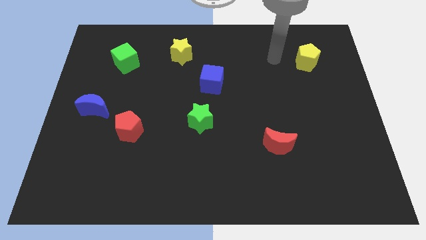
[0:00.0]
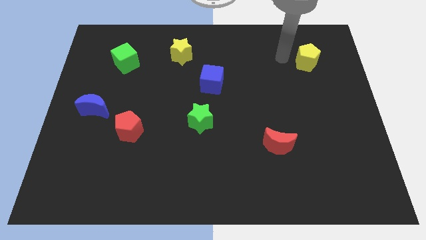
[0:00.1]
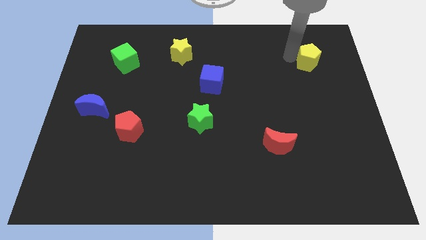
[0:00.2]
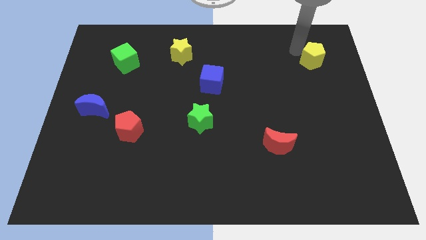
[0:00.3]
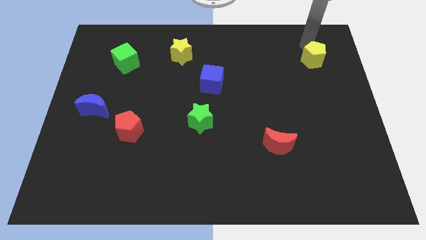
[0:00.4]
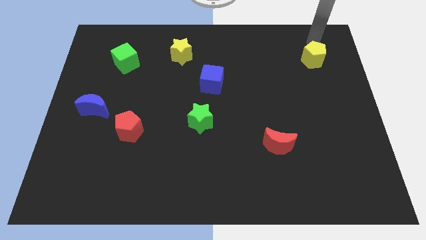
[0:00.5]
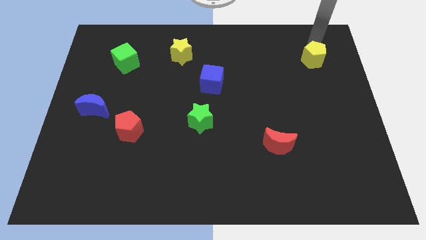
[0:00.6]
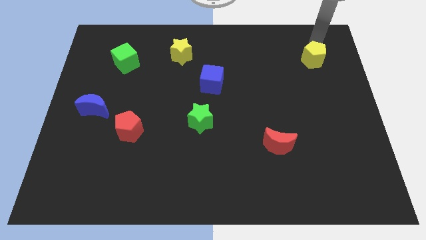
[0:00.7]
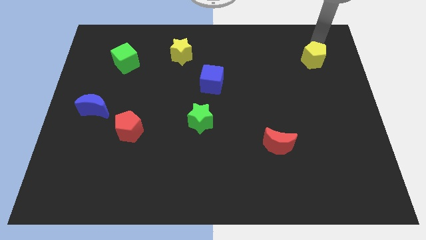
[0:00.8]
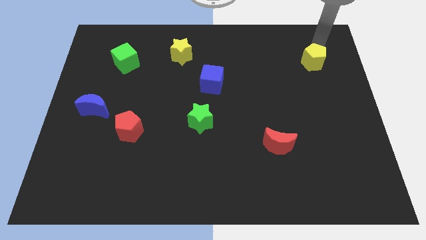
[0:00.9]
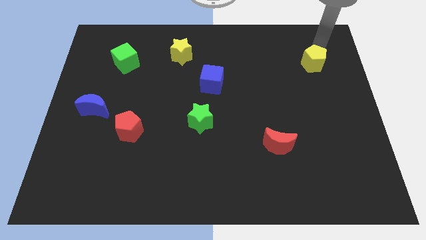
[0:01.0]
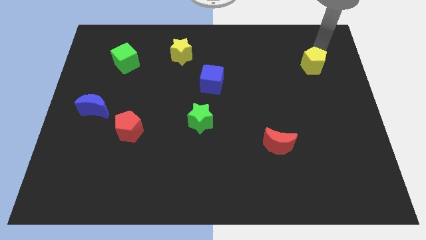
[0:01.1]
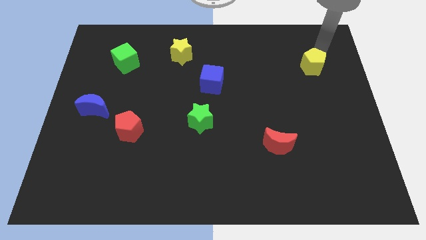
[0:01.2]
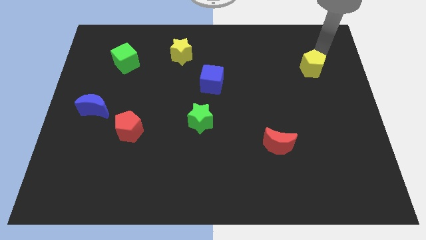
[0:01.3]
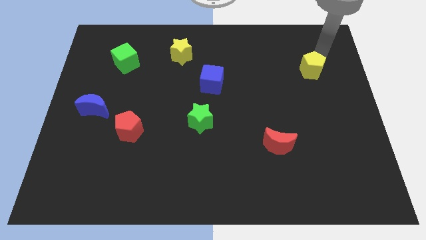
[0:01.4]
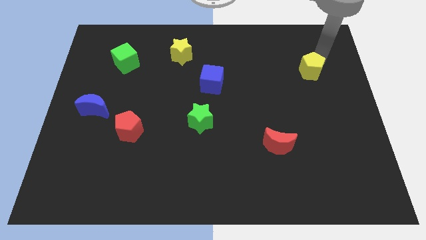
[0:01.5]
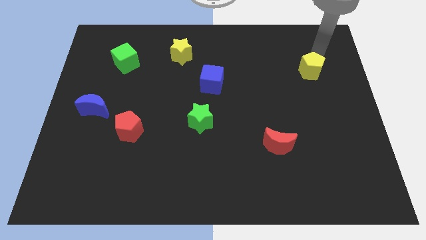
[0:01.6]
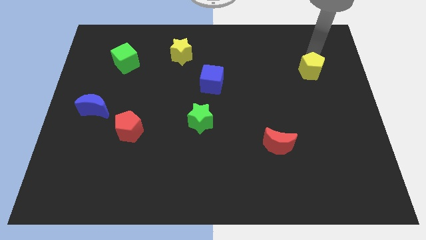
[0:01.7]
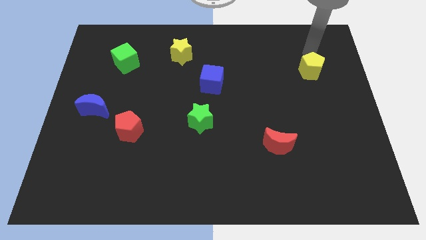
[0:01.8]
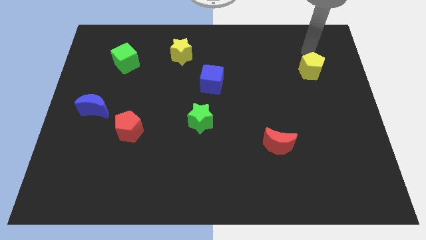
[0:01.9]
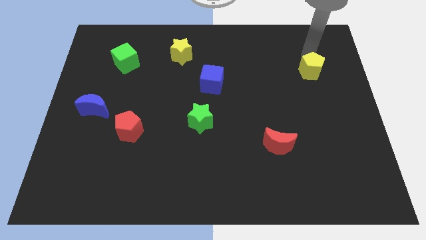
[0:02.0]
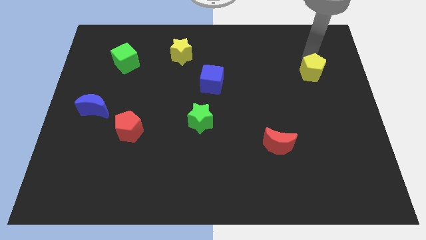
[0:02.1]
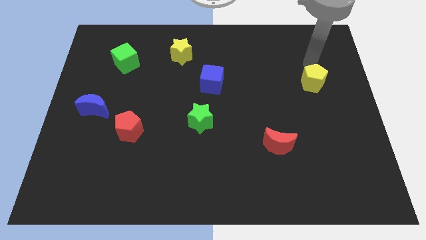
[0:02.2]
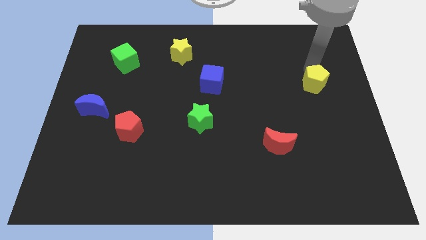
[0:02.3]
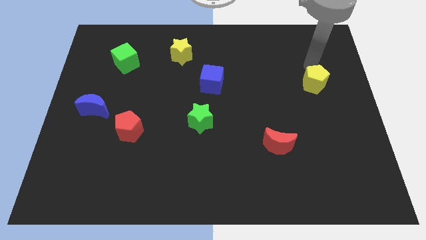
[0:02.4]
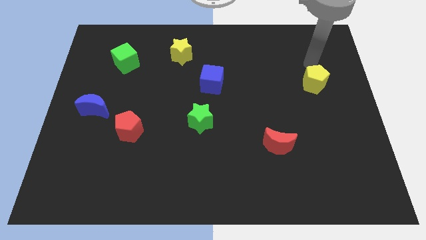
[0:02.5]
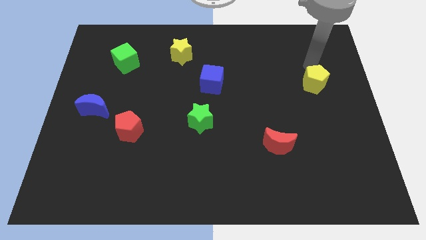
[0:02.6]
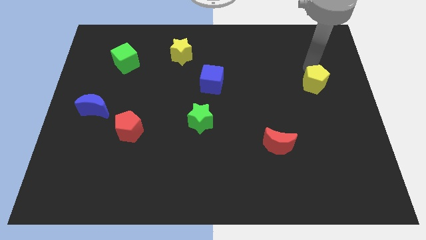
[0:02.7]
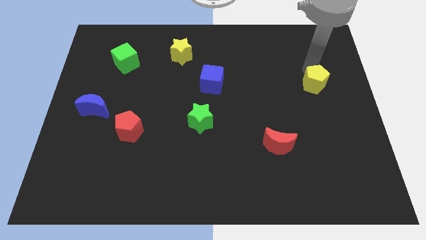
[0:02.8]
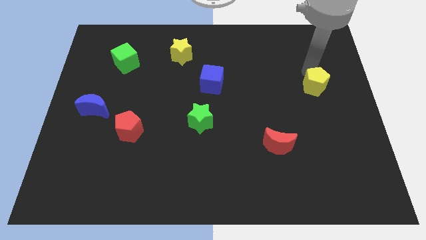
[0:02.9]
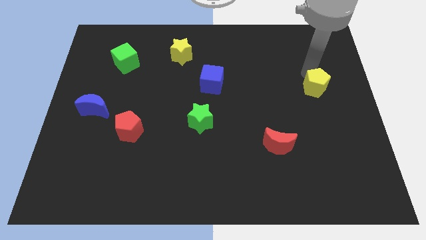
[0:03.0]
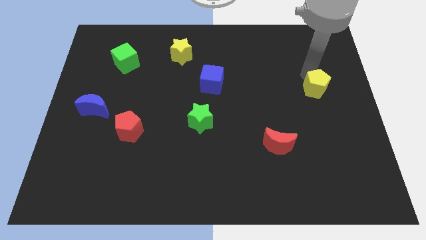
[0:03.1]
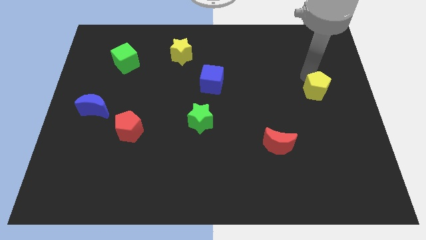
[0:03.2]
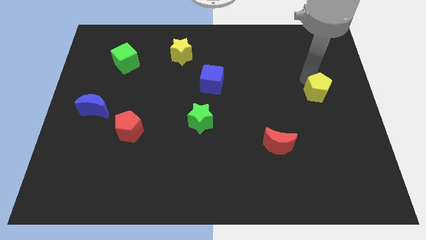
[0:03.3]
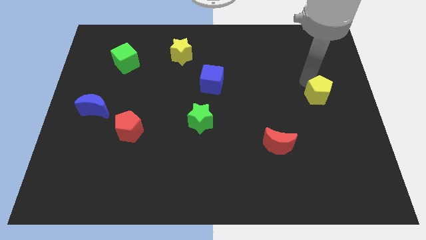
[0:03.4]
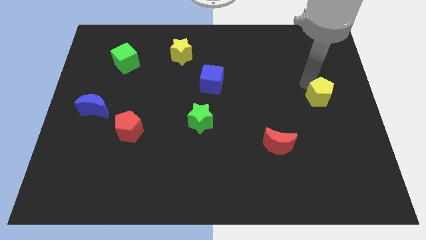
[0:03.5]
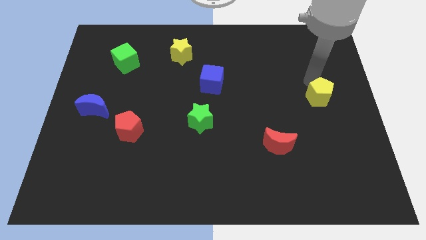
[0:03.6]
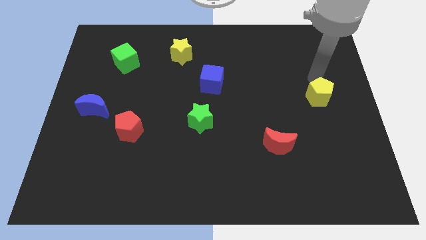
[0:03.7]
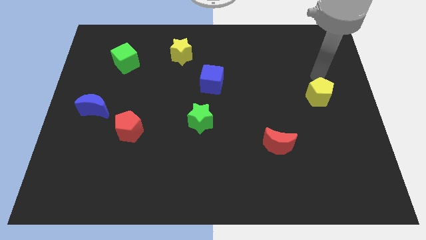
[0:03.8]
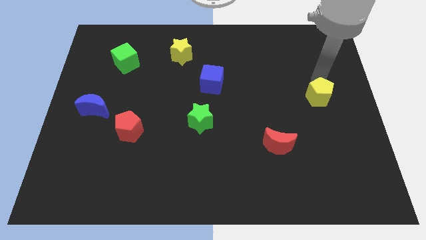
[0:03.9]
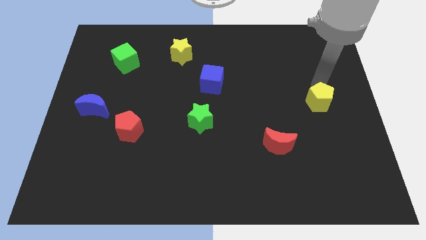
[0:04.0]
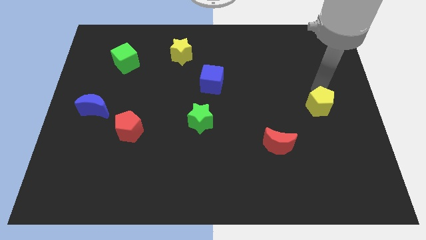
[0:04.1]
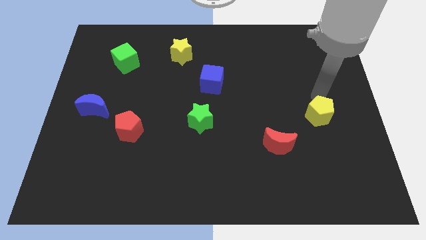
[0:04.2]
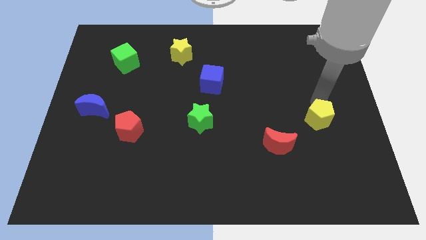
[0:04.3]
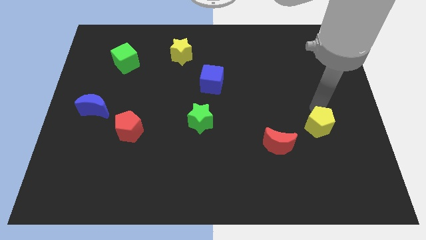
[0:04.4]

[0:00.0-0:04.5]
slide the yellow pentagon down

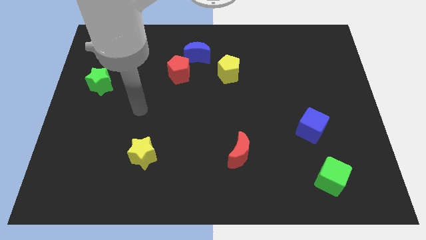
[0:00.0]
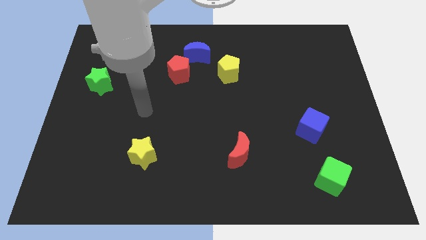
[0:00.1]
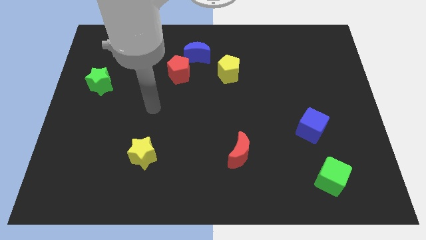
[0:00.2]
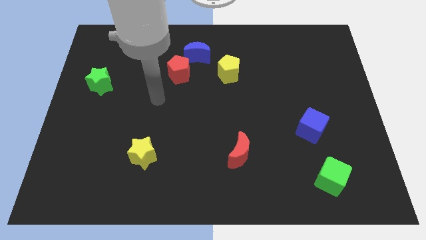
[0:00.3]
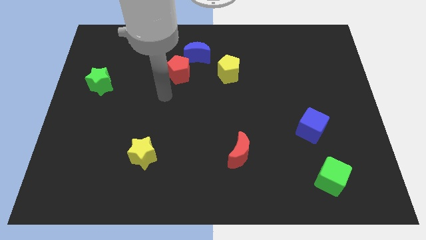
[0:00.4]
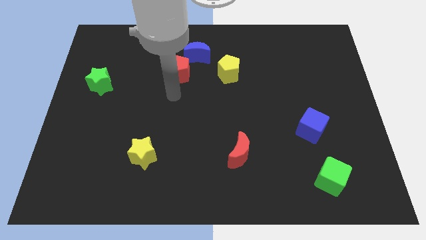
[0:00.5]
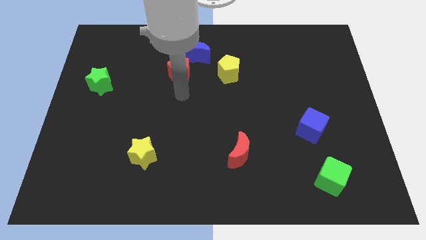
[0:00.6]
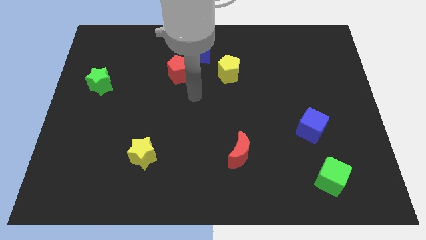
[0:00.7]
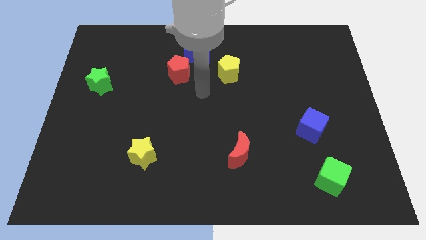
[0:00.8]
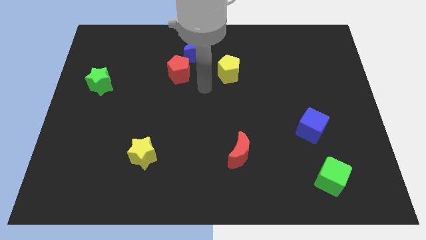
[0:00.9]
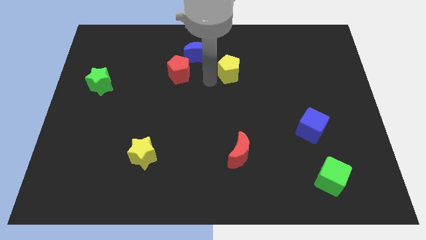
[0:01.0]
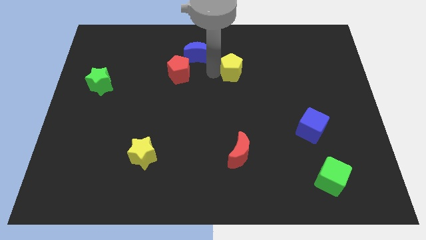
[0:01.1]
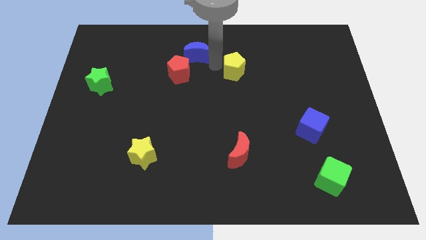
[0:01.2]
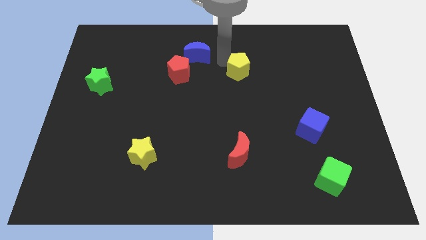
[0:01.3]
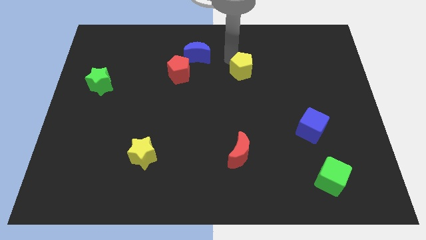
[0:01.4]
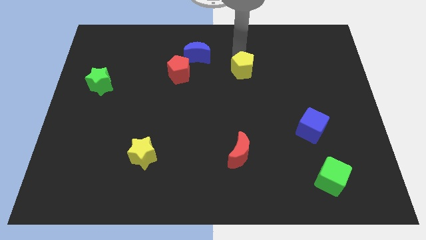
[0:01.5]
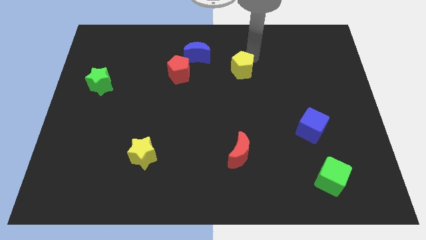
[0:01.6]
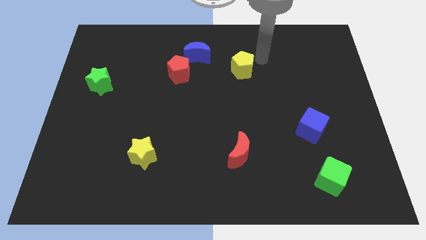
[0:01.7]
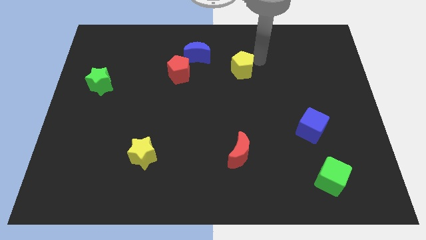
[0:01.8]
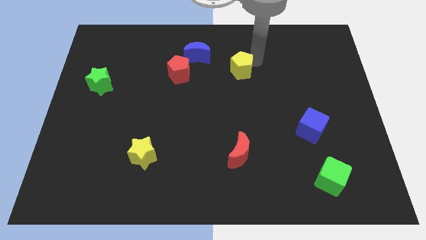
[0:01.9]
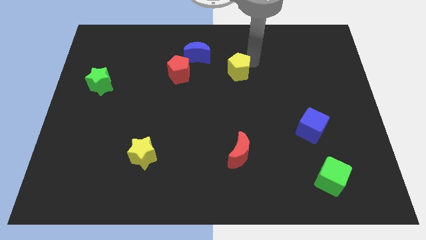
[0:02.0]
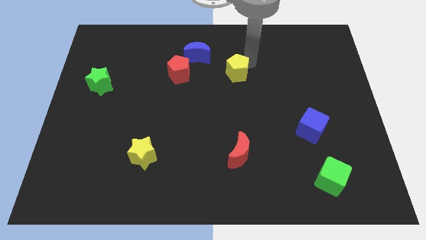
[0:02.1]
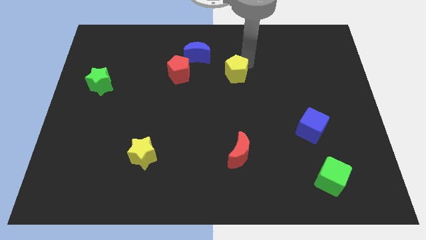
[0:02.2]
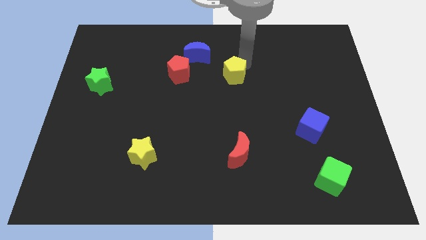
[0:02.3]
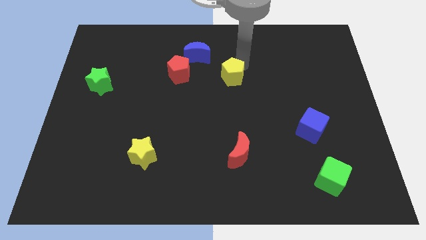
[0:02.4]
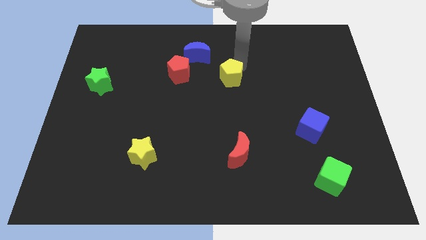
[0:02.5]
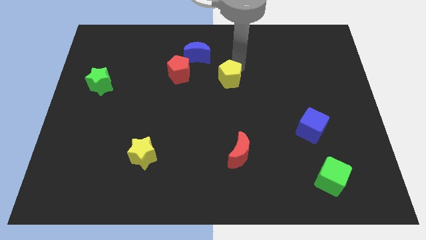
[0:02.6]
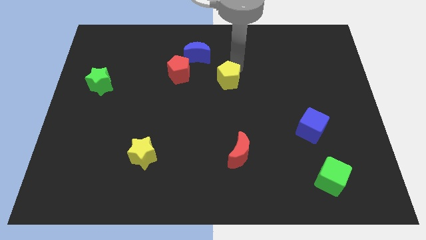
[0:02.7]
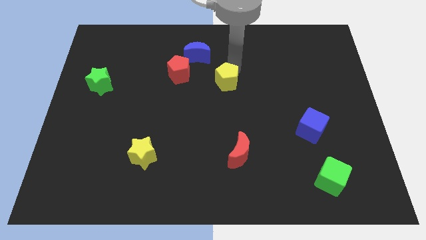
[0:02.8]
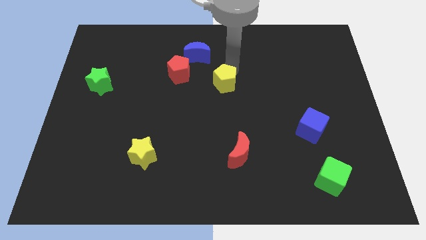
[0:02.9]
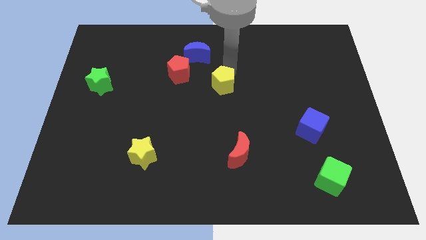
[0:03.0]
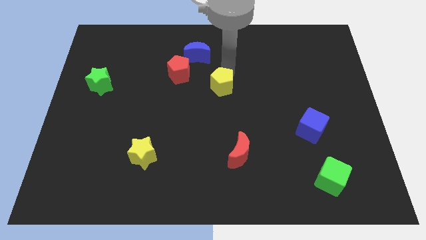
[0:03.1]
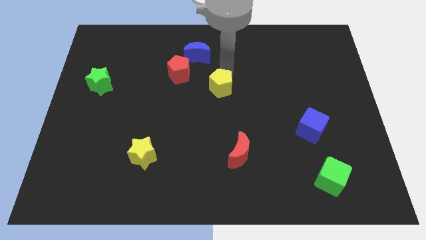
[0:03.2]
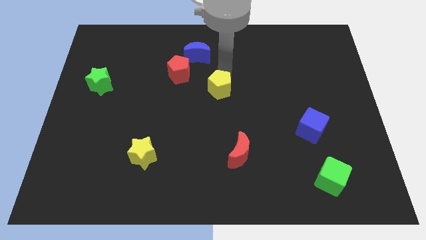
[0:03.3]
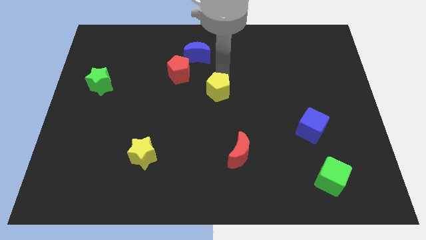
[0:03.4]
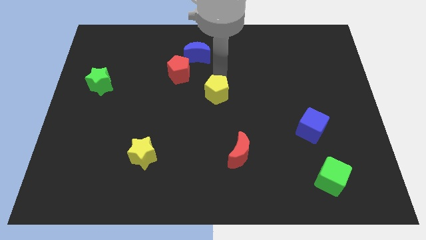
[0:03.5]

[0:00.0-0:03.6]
slightly push the yellow pentagon down and then left

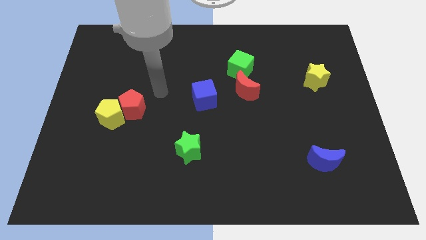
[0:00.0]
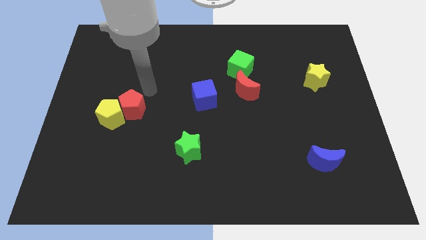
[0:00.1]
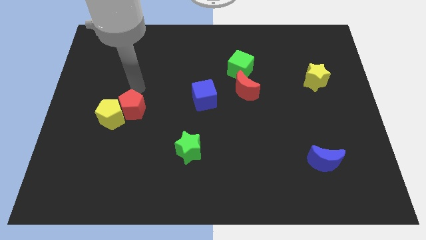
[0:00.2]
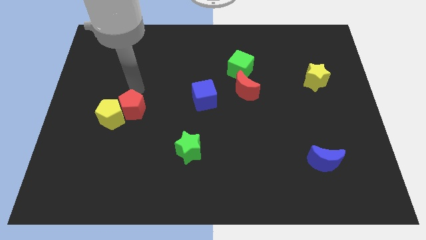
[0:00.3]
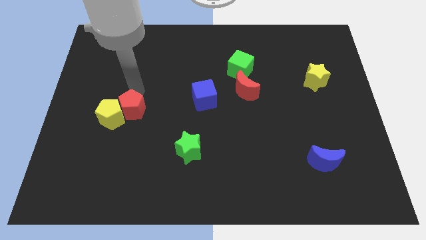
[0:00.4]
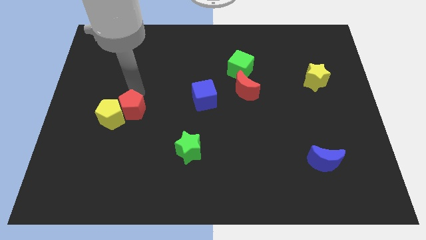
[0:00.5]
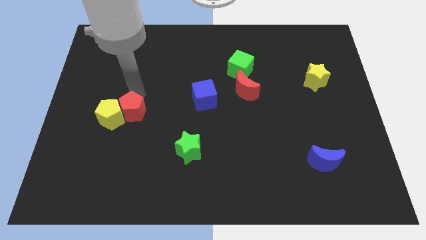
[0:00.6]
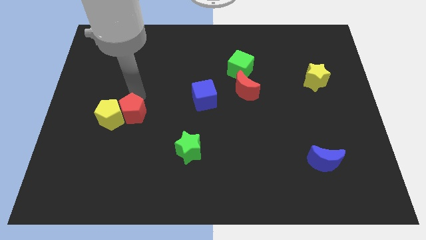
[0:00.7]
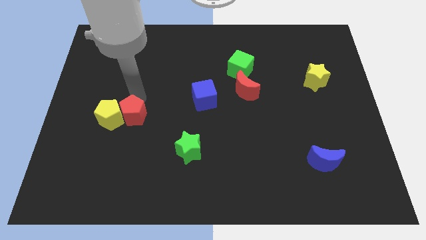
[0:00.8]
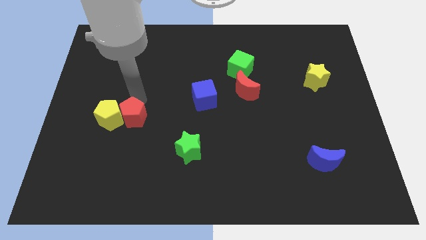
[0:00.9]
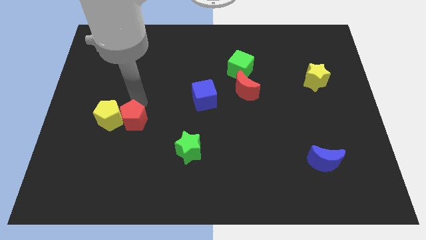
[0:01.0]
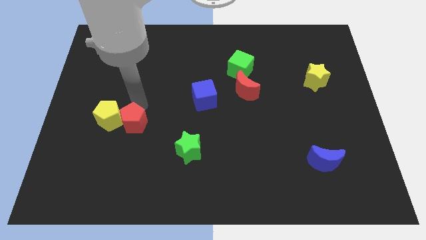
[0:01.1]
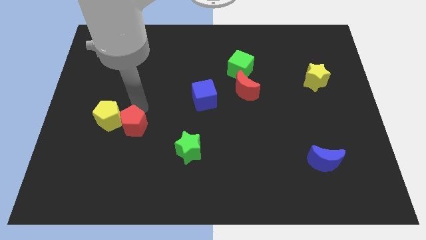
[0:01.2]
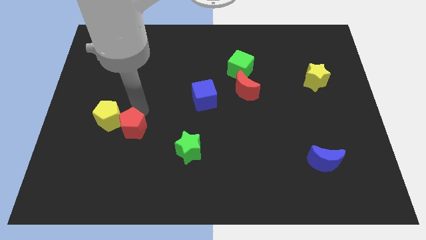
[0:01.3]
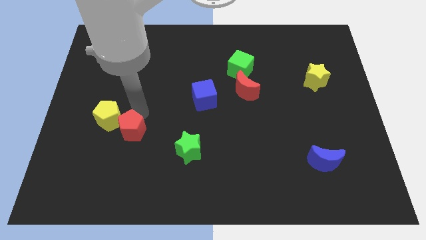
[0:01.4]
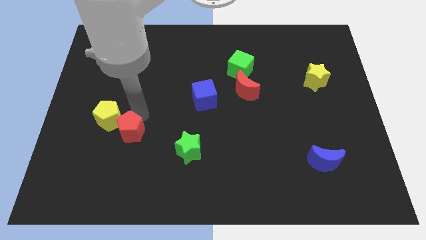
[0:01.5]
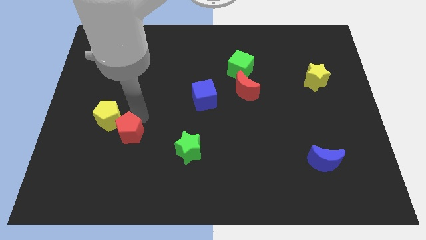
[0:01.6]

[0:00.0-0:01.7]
slide the red pentagon slightly down
